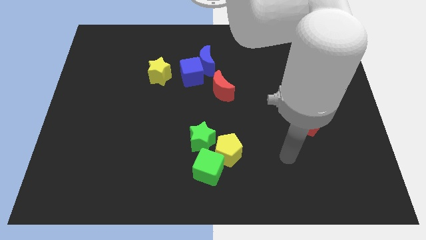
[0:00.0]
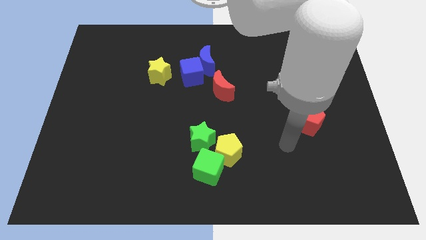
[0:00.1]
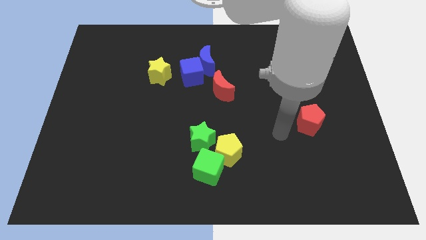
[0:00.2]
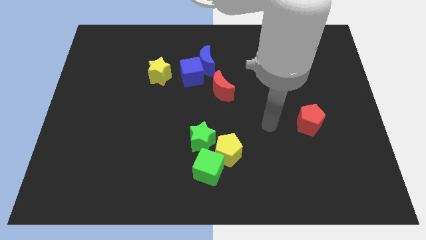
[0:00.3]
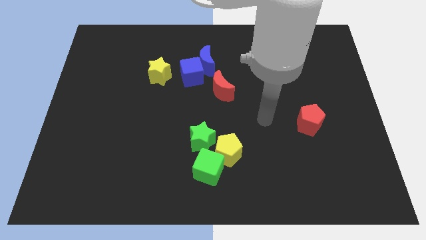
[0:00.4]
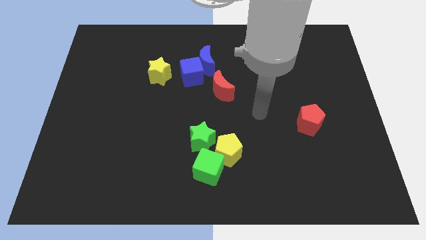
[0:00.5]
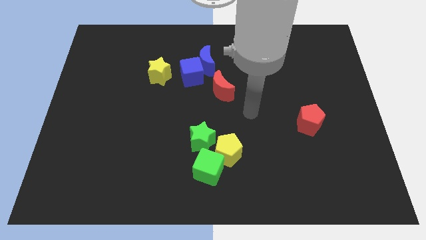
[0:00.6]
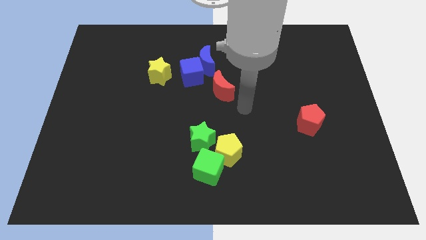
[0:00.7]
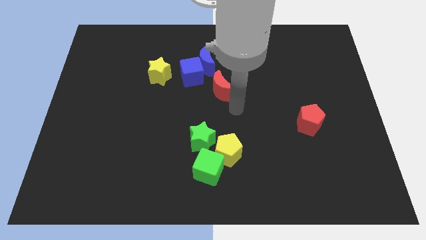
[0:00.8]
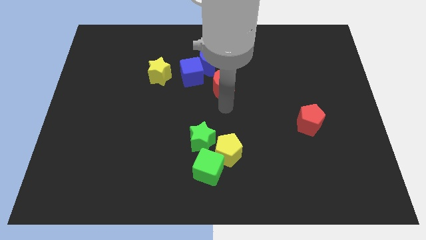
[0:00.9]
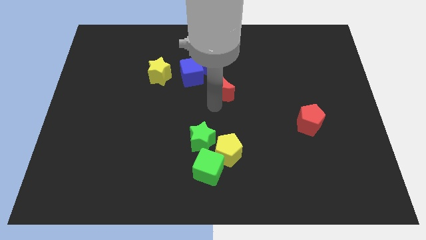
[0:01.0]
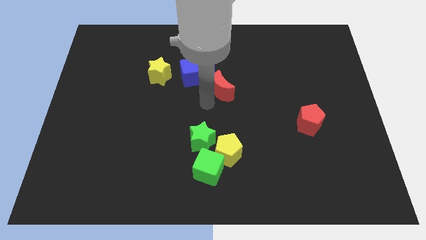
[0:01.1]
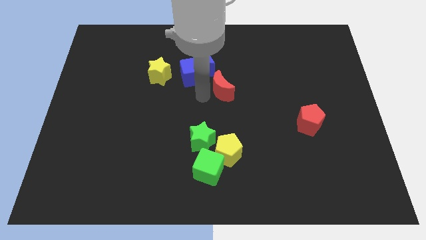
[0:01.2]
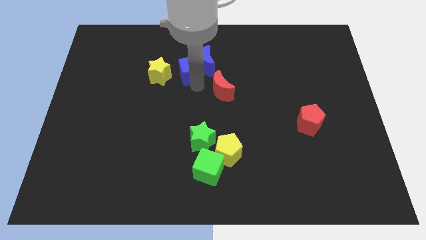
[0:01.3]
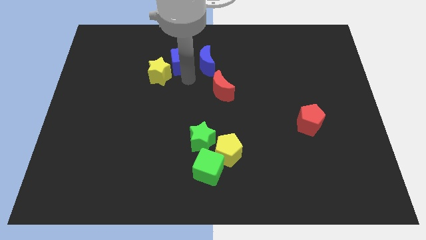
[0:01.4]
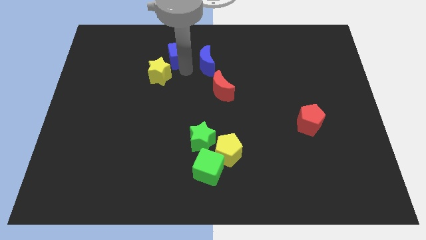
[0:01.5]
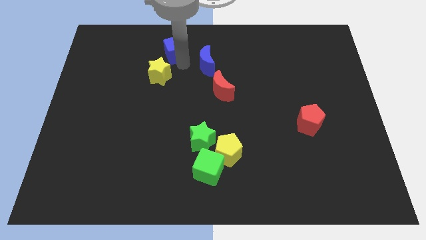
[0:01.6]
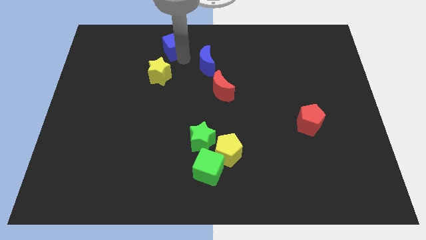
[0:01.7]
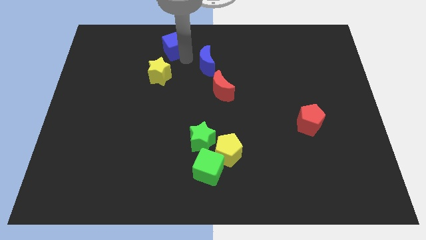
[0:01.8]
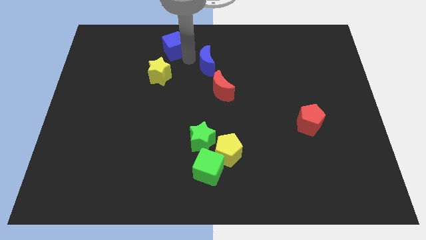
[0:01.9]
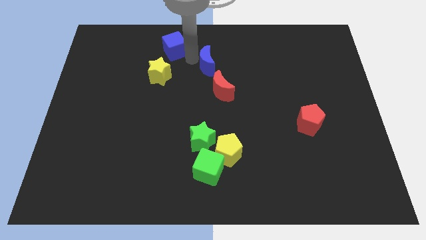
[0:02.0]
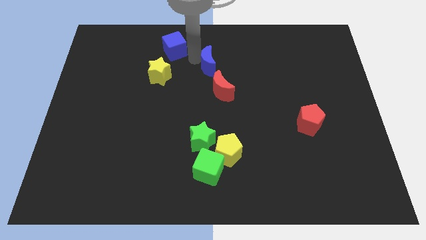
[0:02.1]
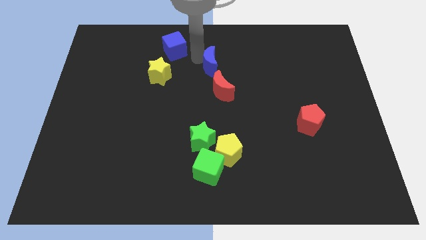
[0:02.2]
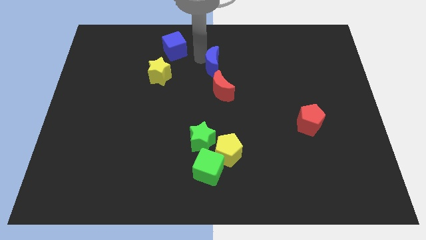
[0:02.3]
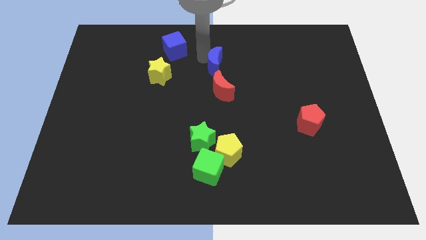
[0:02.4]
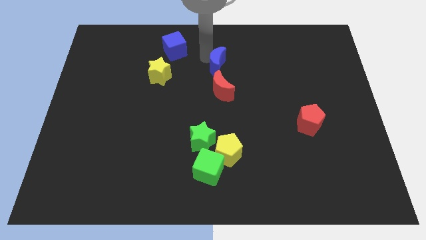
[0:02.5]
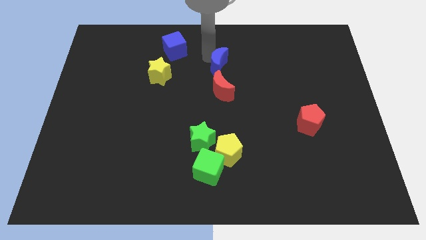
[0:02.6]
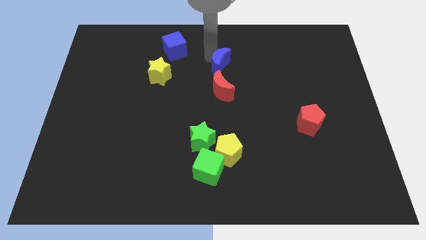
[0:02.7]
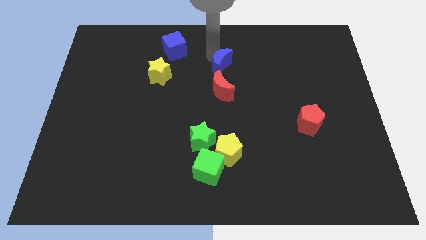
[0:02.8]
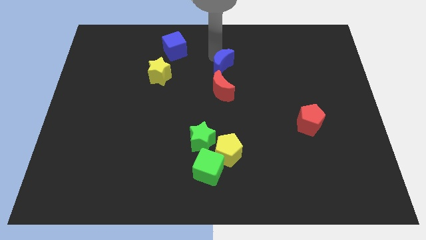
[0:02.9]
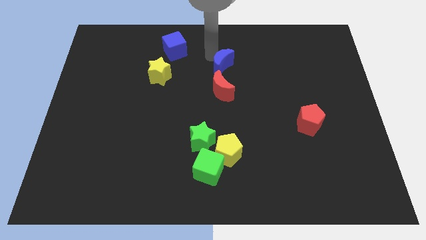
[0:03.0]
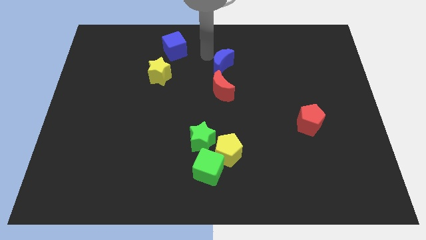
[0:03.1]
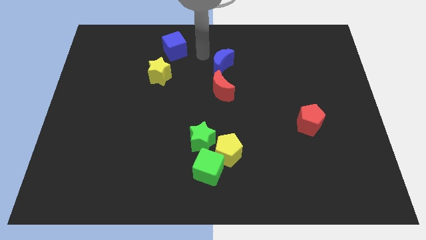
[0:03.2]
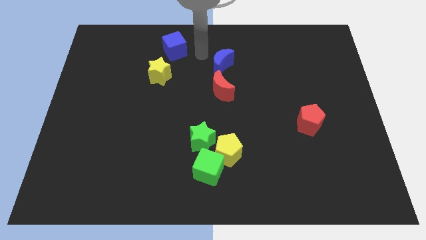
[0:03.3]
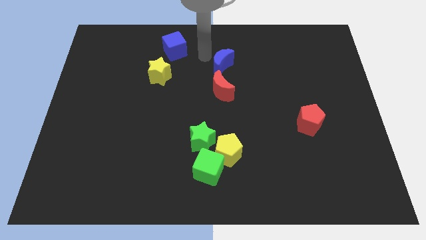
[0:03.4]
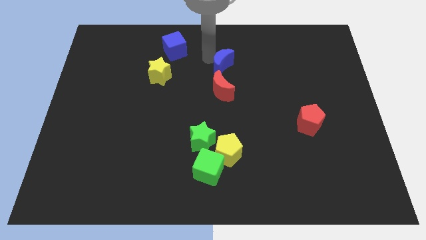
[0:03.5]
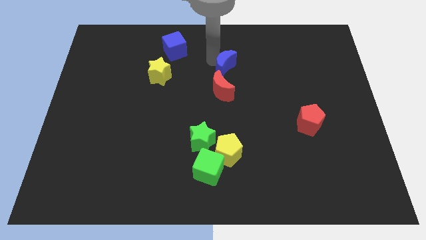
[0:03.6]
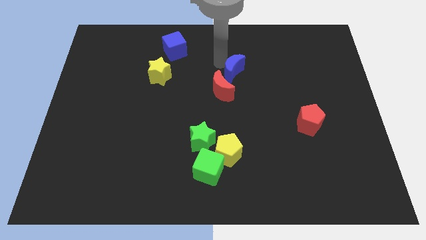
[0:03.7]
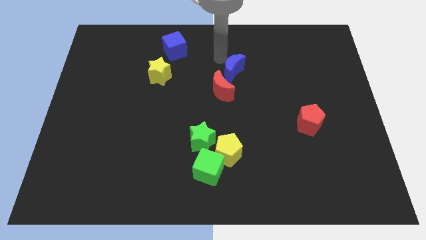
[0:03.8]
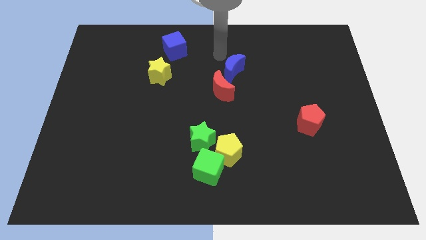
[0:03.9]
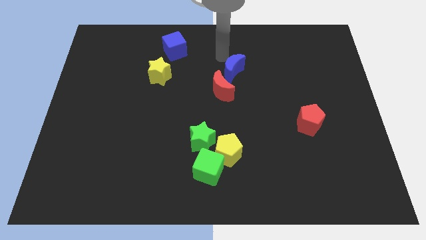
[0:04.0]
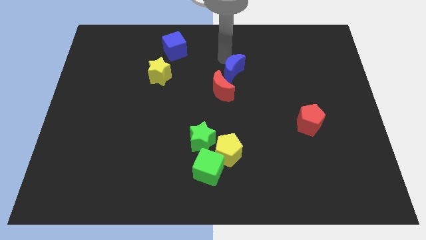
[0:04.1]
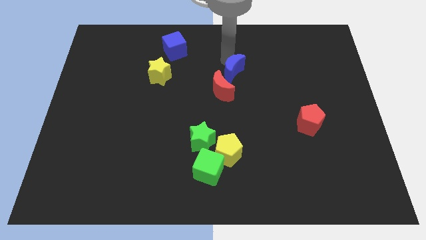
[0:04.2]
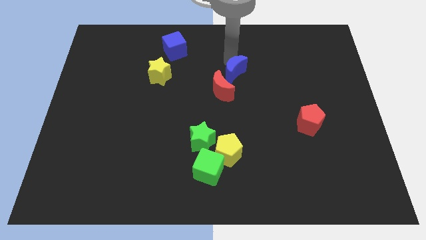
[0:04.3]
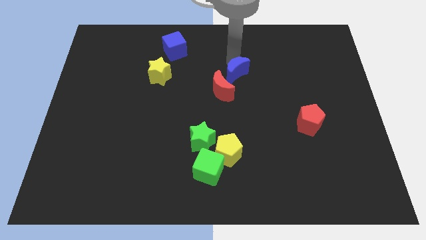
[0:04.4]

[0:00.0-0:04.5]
push the blue moon down and then right slightly

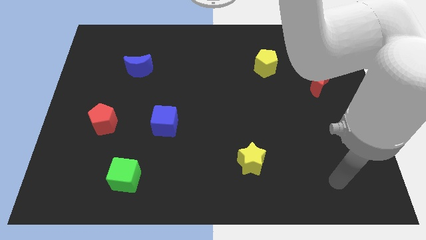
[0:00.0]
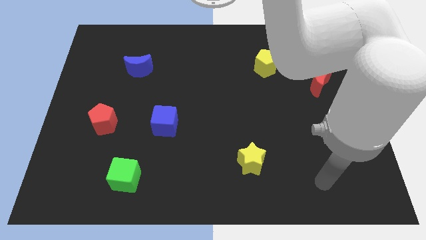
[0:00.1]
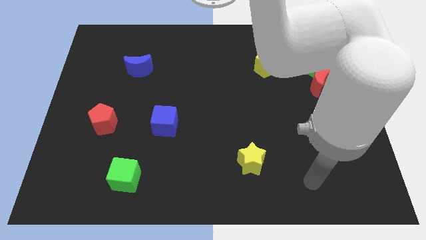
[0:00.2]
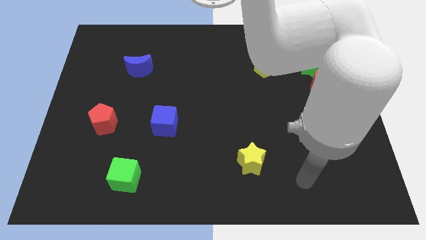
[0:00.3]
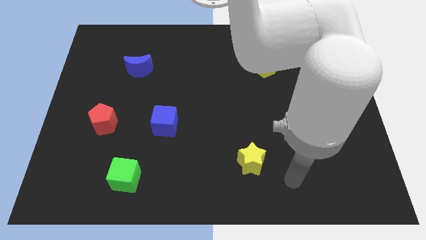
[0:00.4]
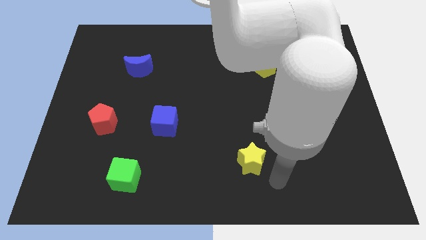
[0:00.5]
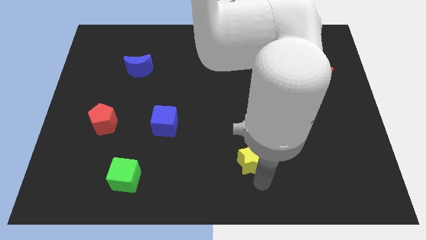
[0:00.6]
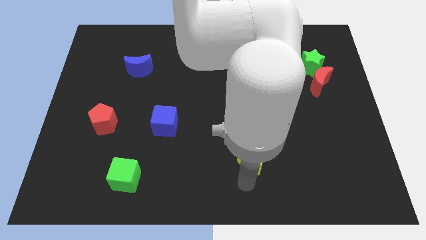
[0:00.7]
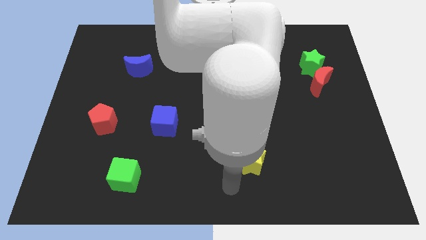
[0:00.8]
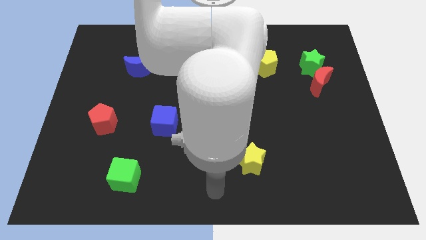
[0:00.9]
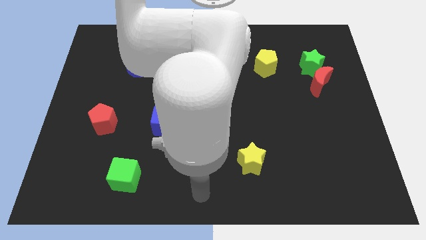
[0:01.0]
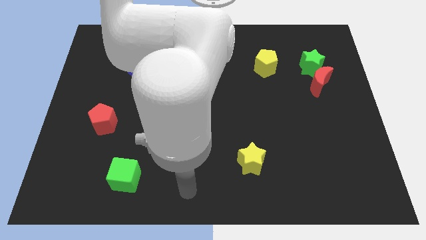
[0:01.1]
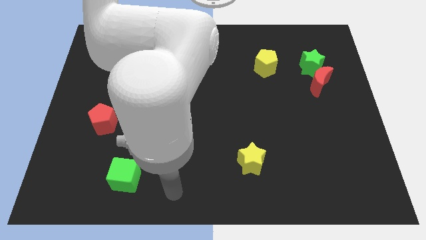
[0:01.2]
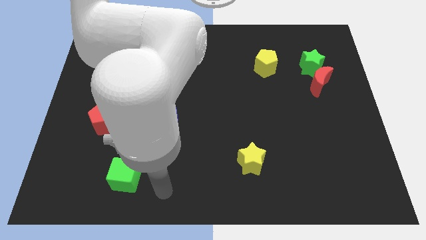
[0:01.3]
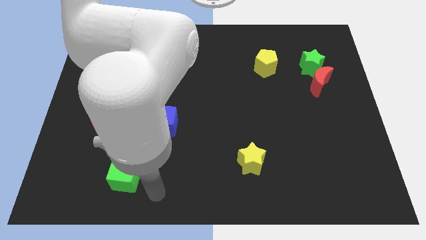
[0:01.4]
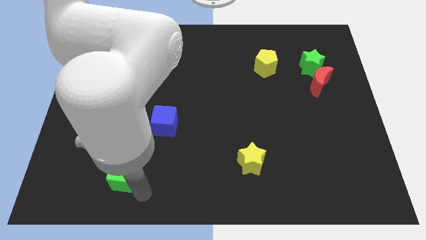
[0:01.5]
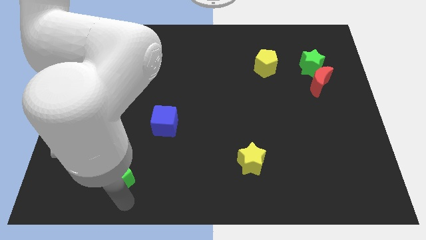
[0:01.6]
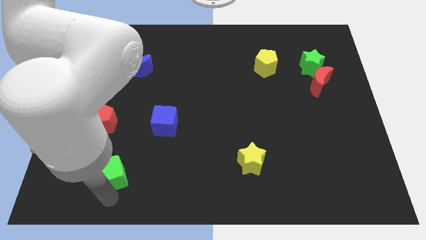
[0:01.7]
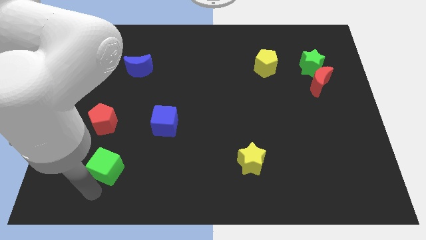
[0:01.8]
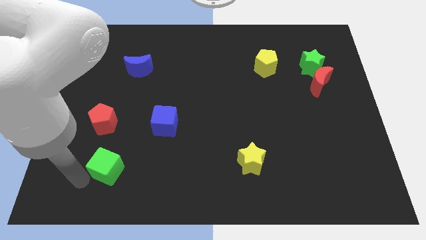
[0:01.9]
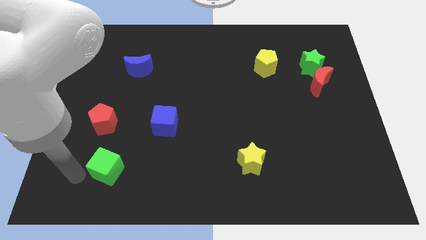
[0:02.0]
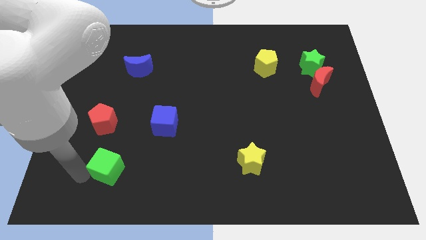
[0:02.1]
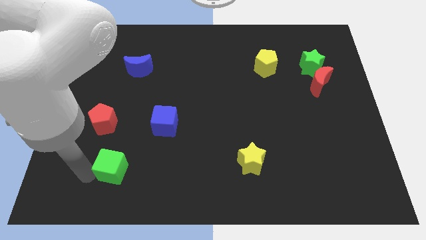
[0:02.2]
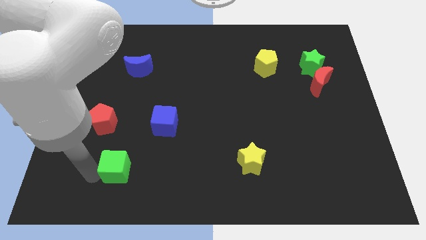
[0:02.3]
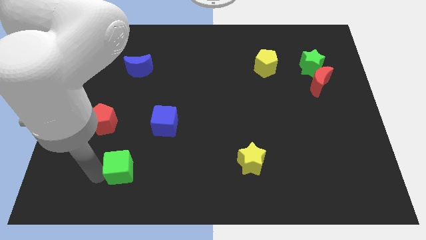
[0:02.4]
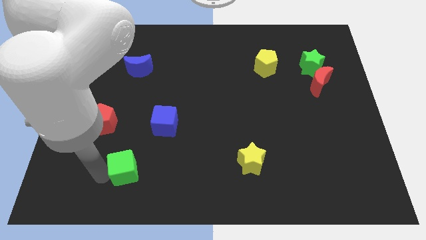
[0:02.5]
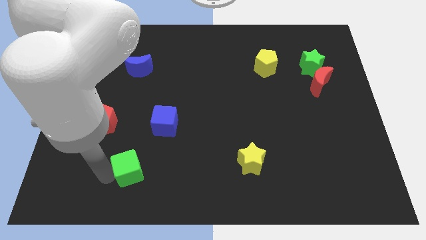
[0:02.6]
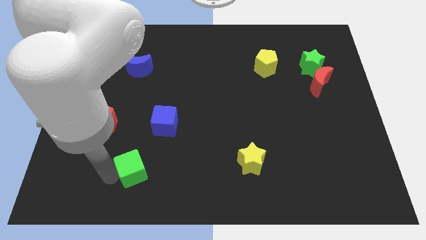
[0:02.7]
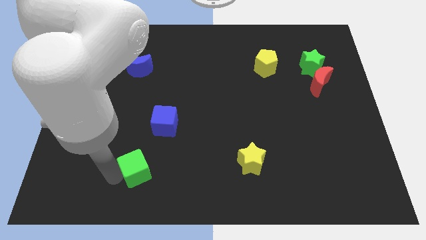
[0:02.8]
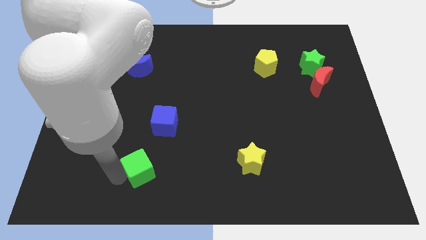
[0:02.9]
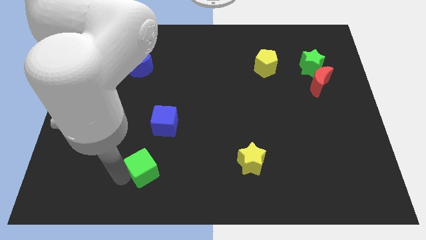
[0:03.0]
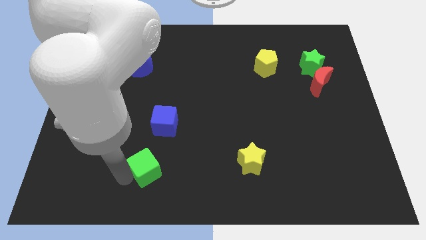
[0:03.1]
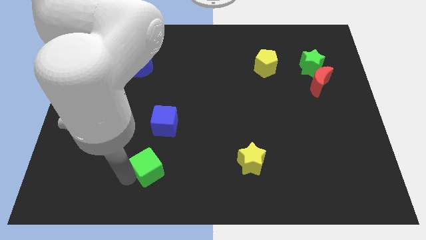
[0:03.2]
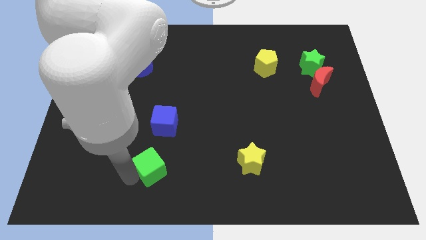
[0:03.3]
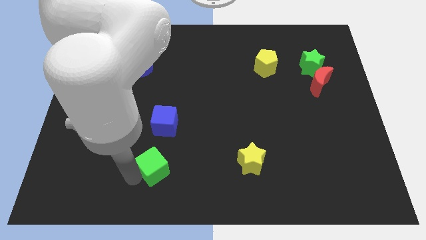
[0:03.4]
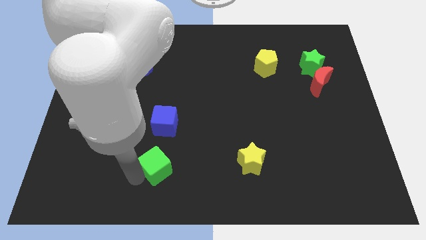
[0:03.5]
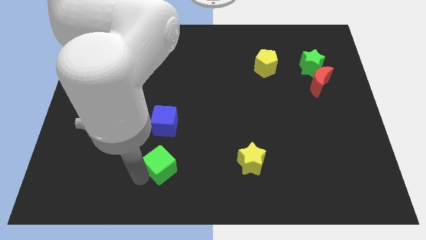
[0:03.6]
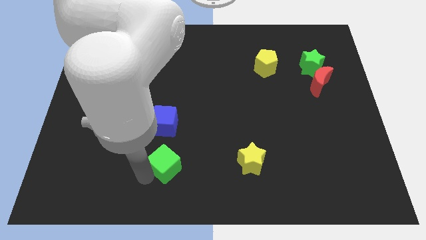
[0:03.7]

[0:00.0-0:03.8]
slide the green cube diagonally up and right somewhat
